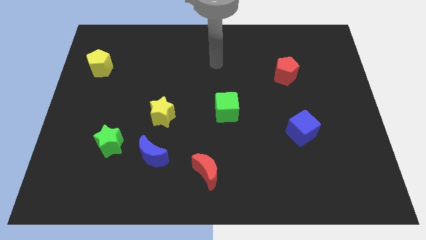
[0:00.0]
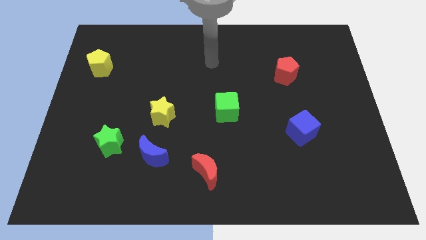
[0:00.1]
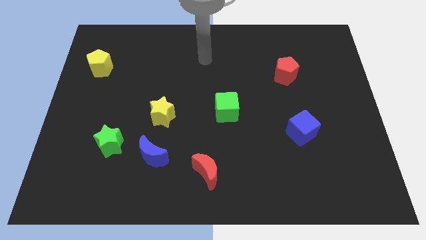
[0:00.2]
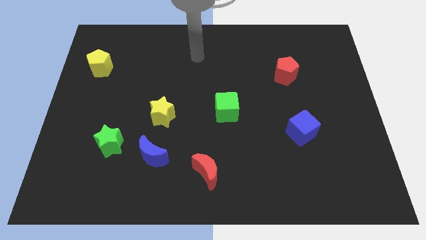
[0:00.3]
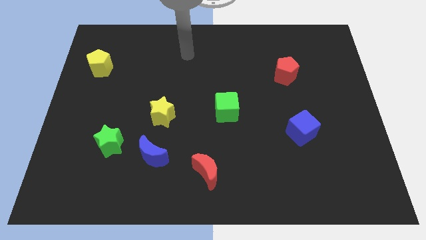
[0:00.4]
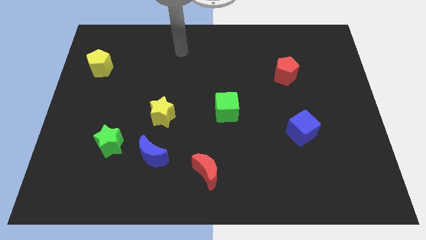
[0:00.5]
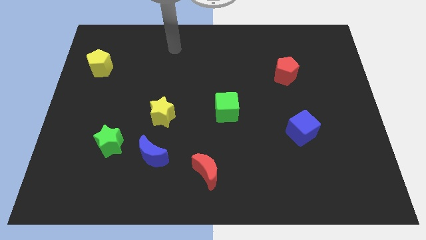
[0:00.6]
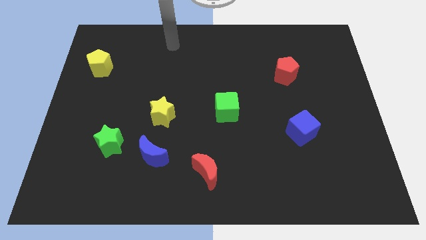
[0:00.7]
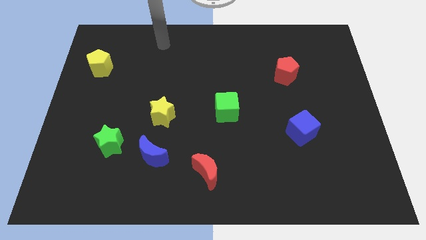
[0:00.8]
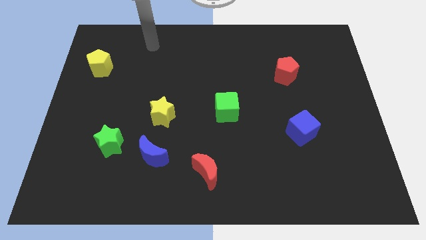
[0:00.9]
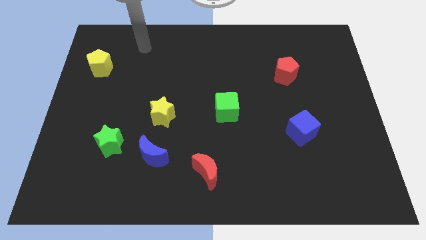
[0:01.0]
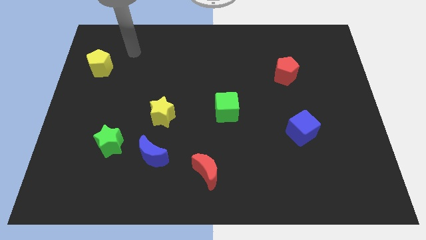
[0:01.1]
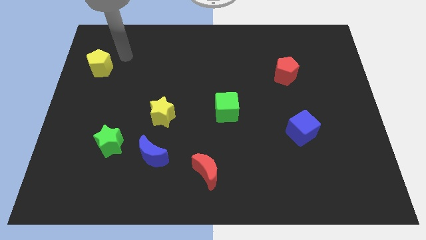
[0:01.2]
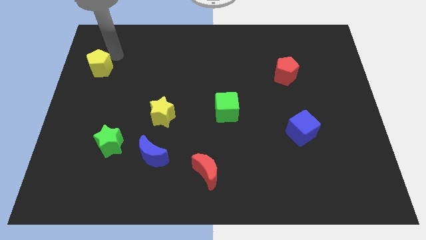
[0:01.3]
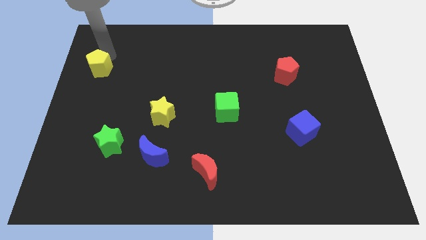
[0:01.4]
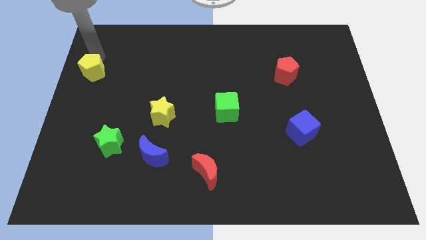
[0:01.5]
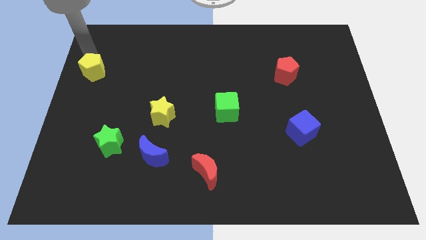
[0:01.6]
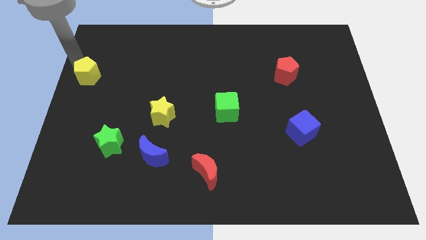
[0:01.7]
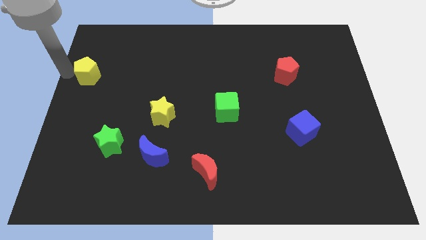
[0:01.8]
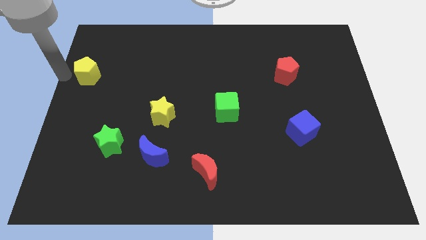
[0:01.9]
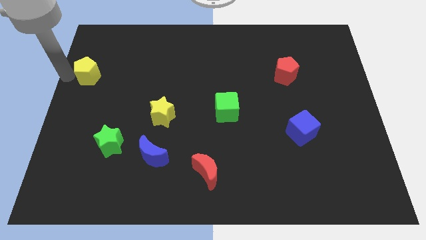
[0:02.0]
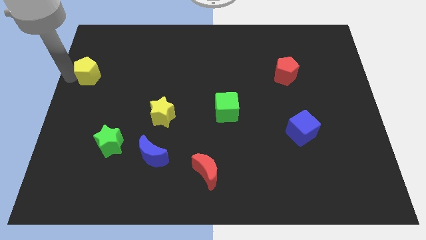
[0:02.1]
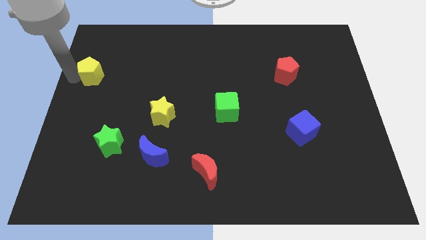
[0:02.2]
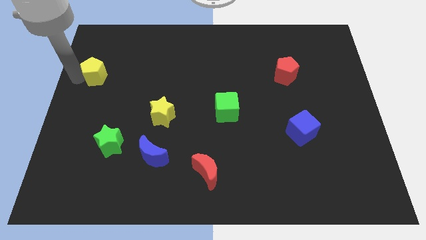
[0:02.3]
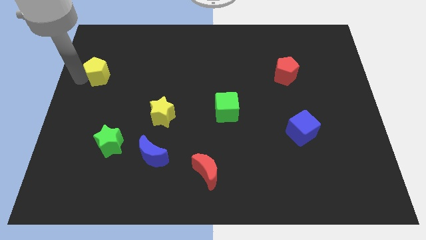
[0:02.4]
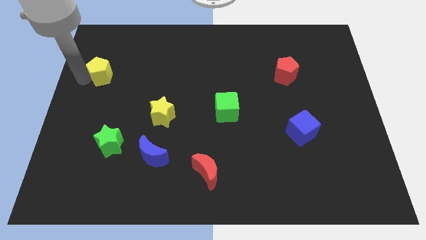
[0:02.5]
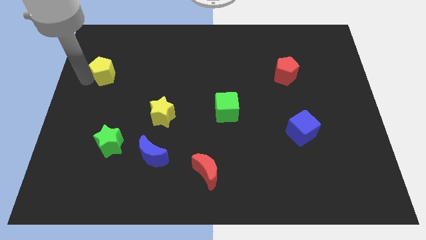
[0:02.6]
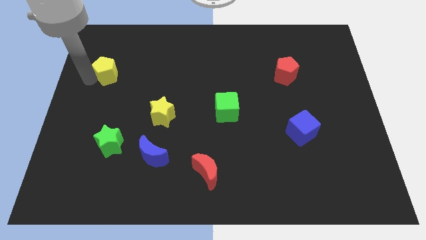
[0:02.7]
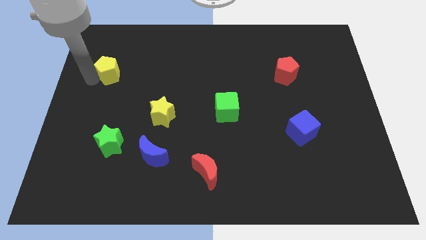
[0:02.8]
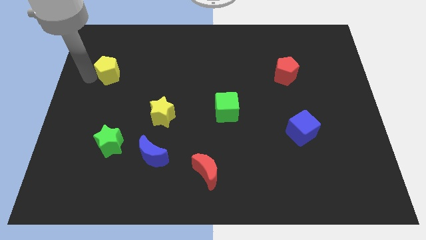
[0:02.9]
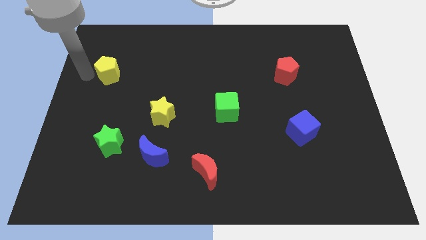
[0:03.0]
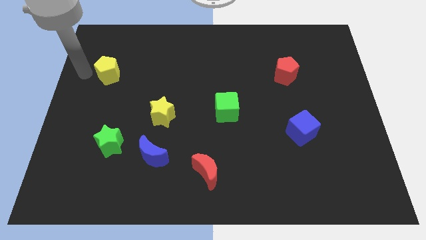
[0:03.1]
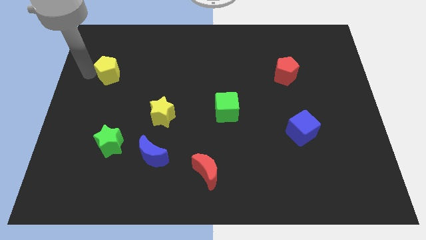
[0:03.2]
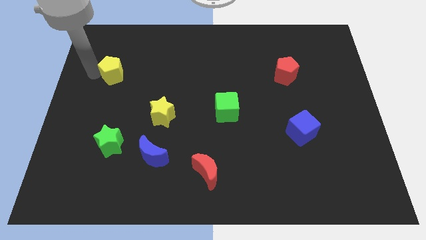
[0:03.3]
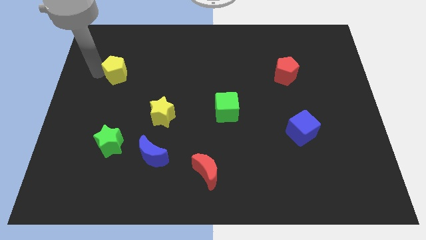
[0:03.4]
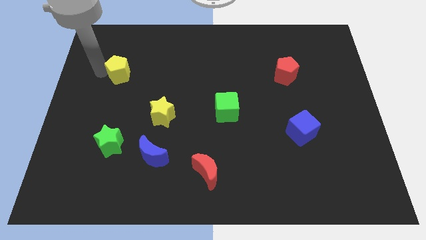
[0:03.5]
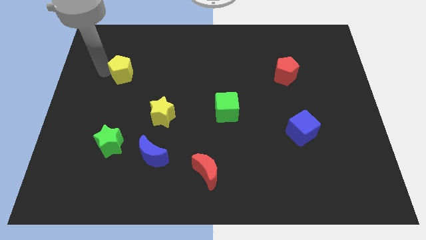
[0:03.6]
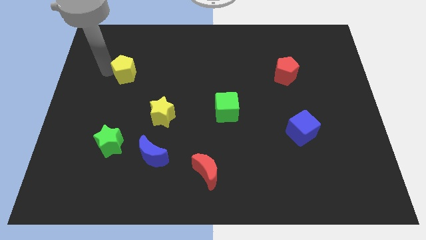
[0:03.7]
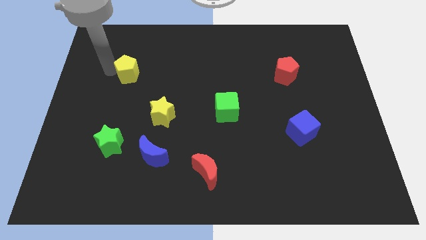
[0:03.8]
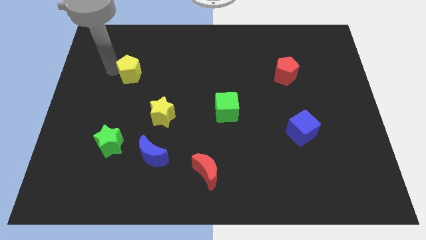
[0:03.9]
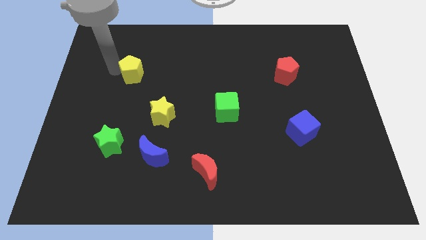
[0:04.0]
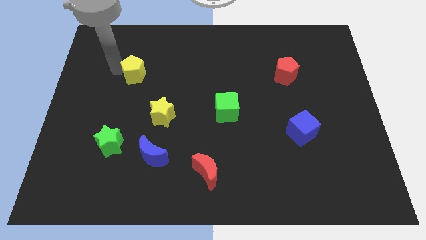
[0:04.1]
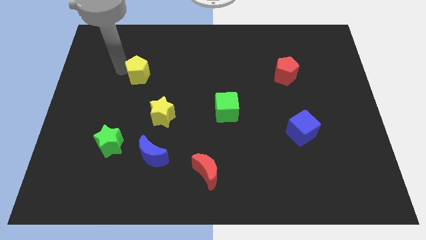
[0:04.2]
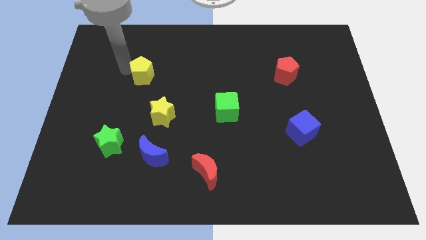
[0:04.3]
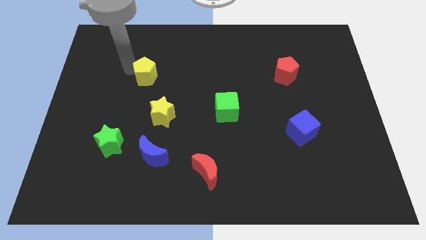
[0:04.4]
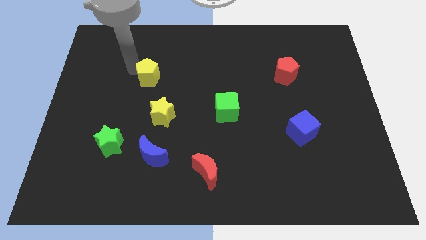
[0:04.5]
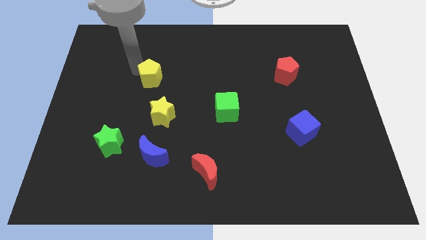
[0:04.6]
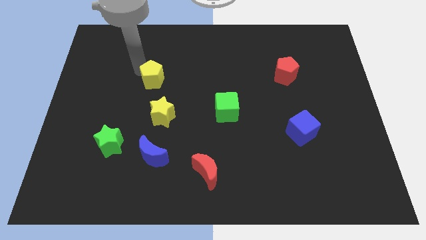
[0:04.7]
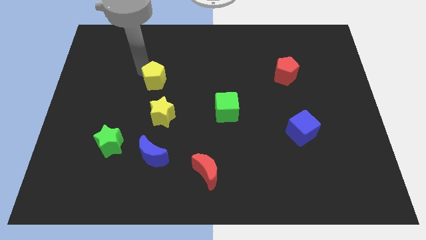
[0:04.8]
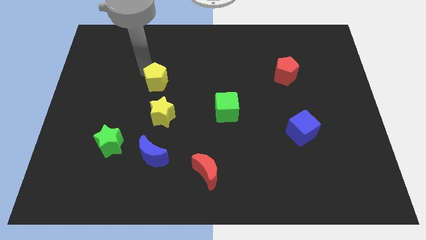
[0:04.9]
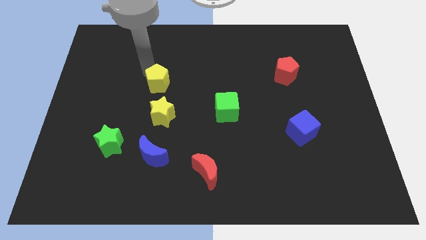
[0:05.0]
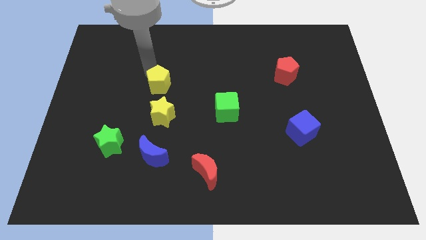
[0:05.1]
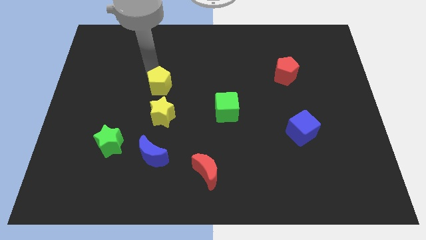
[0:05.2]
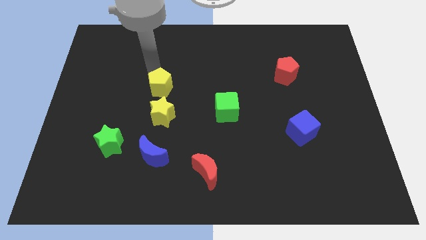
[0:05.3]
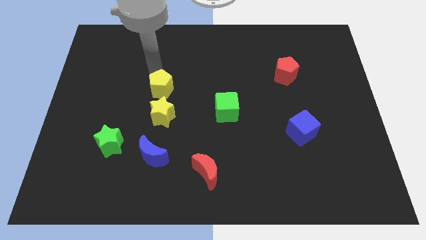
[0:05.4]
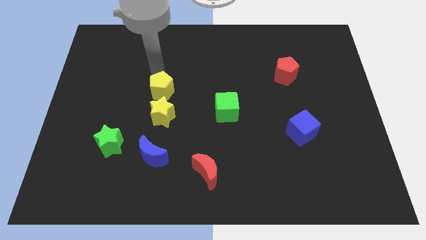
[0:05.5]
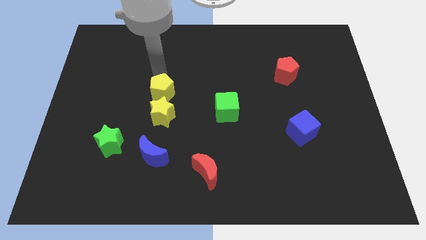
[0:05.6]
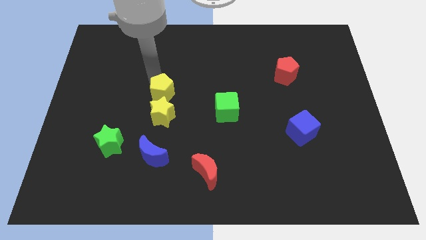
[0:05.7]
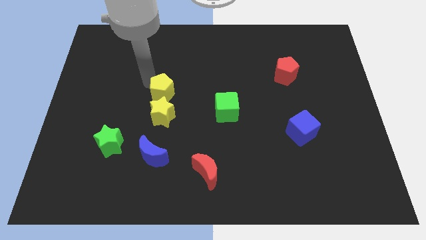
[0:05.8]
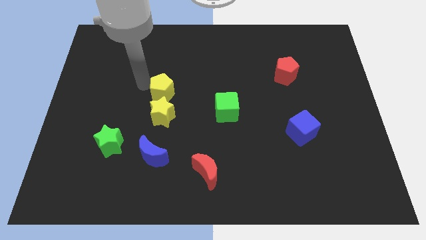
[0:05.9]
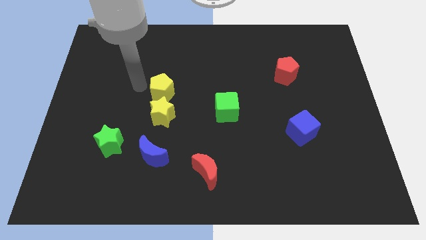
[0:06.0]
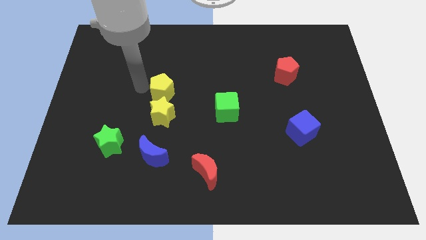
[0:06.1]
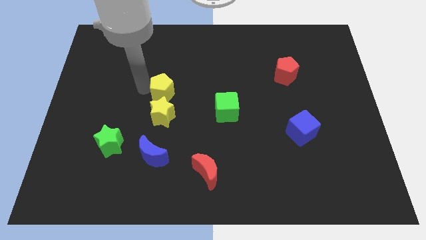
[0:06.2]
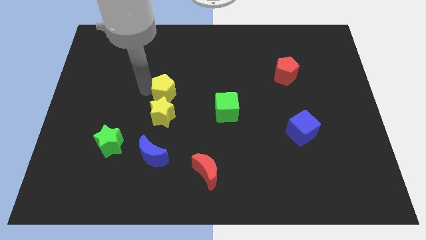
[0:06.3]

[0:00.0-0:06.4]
put the yellow pentagon to the top right of the yellow star

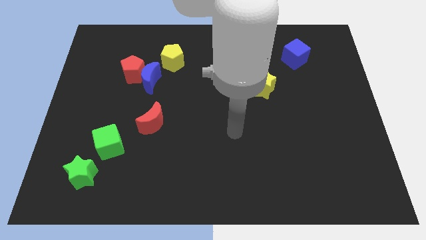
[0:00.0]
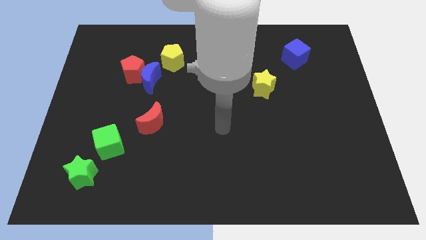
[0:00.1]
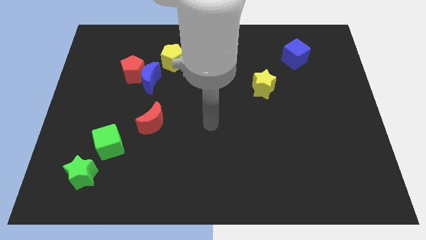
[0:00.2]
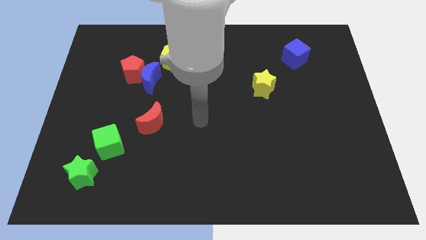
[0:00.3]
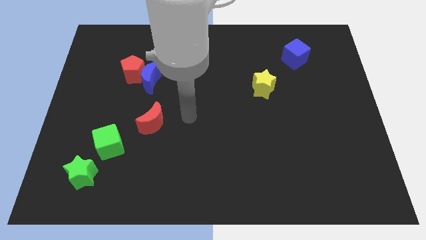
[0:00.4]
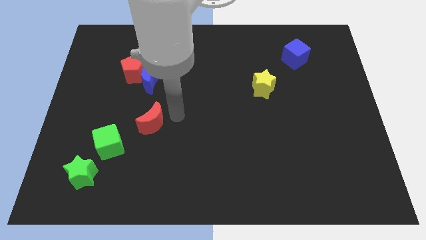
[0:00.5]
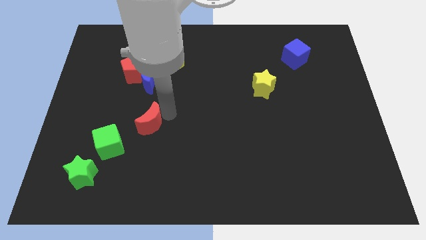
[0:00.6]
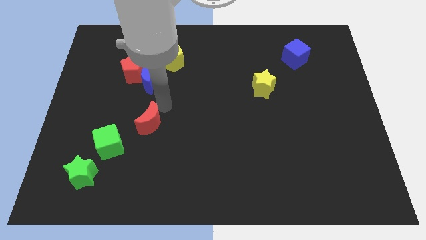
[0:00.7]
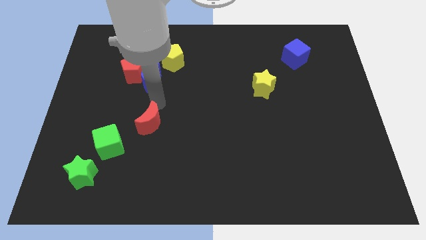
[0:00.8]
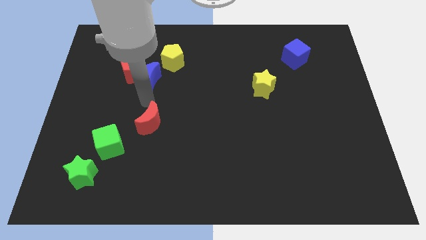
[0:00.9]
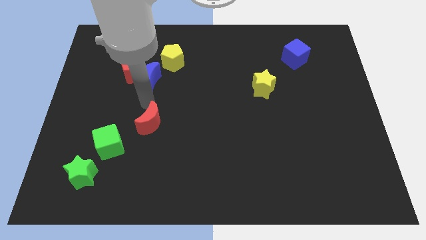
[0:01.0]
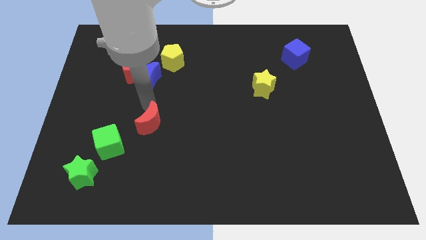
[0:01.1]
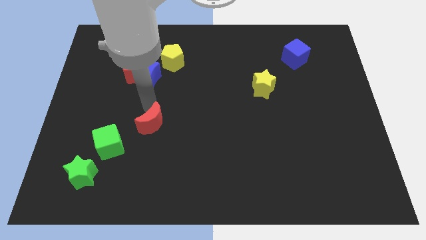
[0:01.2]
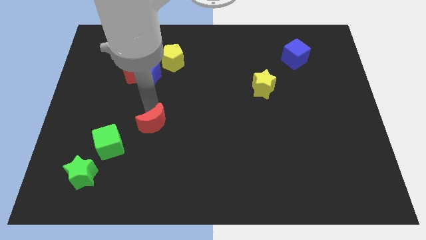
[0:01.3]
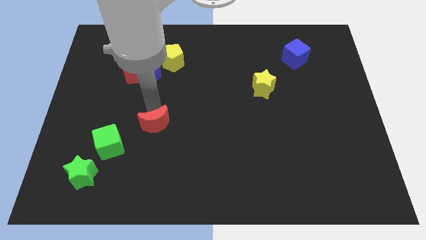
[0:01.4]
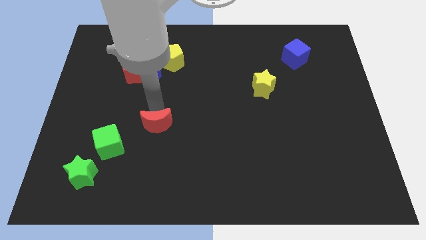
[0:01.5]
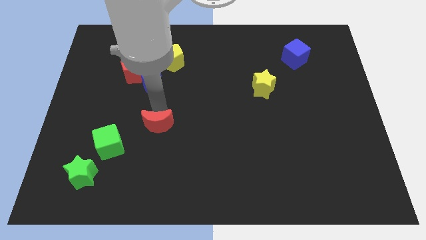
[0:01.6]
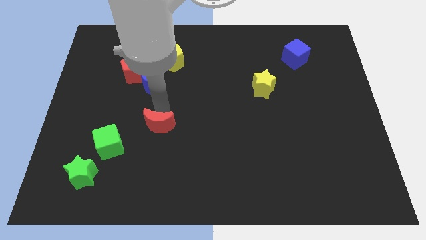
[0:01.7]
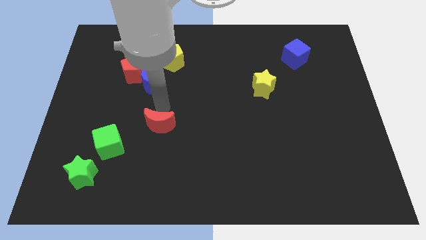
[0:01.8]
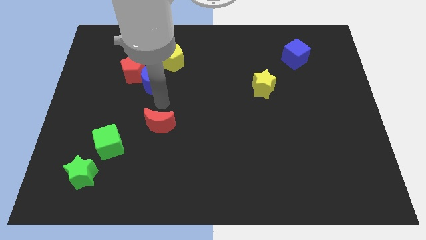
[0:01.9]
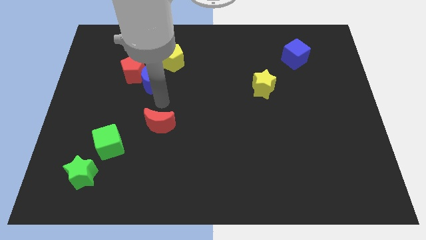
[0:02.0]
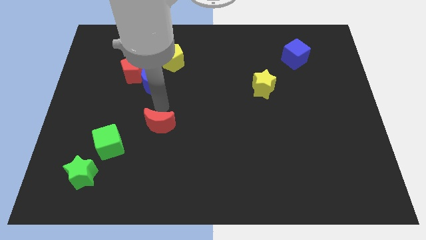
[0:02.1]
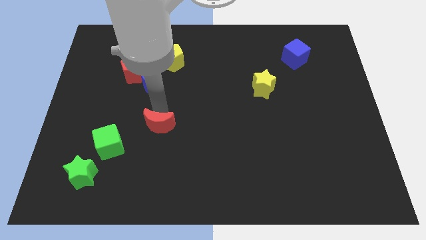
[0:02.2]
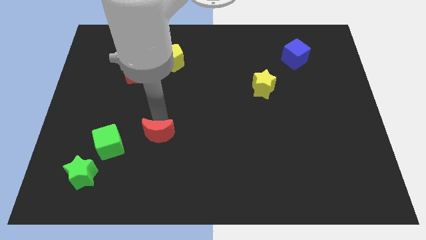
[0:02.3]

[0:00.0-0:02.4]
slide the red moon to the right of the green cube
